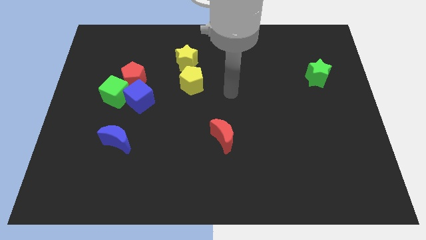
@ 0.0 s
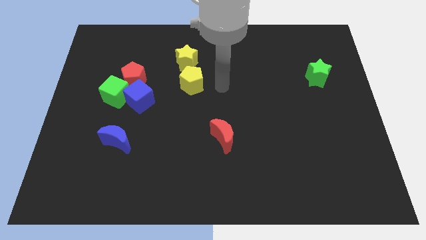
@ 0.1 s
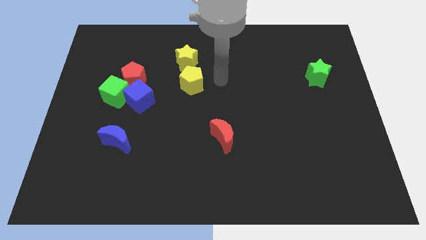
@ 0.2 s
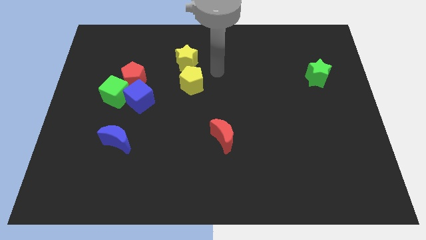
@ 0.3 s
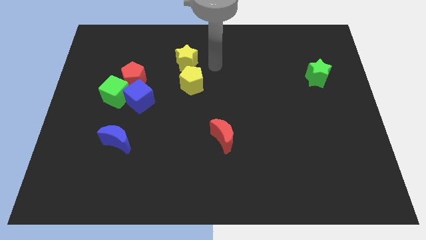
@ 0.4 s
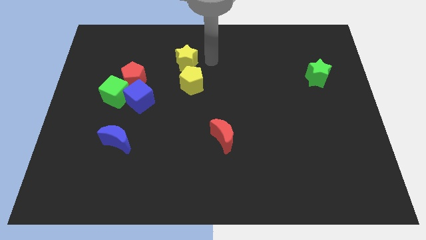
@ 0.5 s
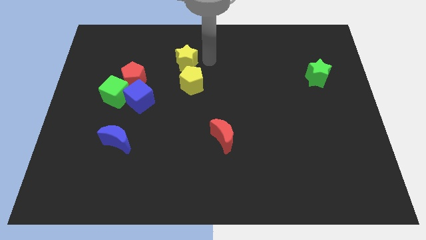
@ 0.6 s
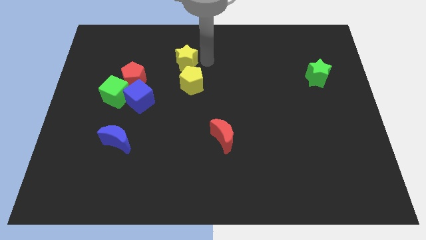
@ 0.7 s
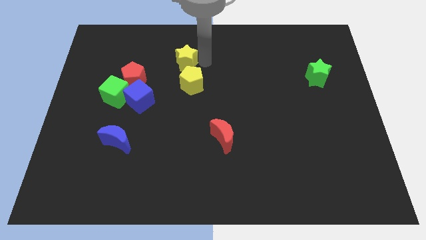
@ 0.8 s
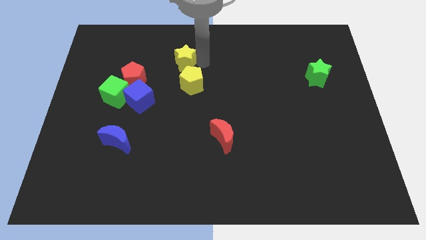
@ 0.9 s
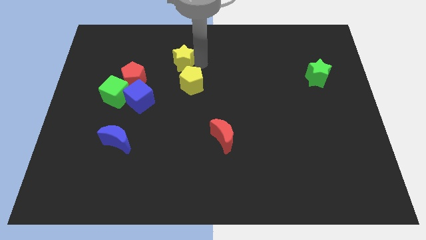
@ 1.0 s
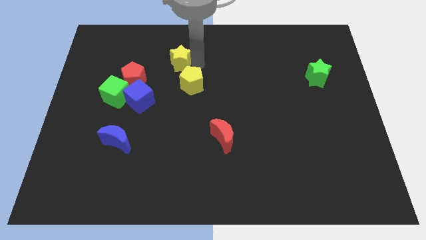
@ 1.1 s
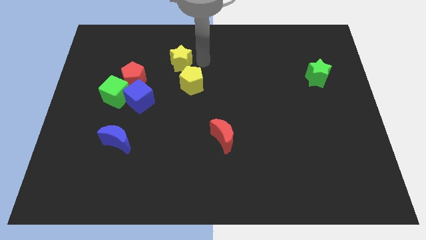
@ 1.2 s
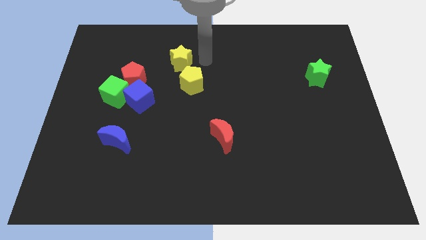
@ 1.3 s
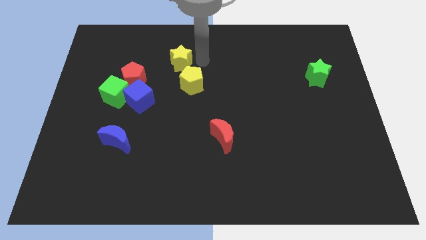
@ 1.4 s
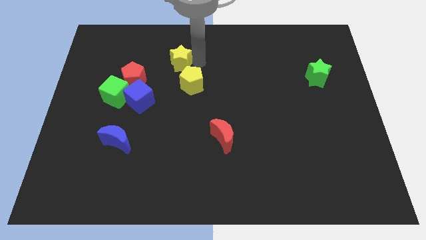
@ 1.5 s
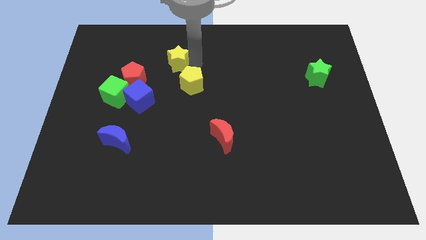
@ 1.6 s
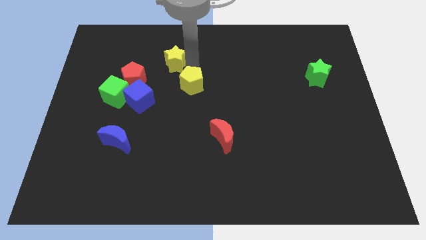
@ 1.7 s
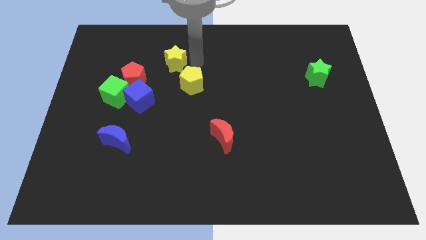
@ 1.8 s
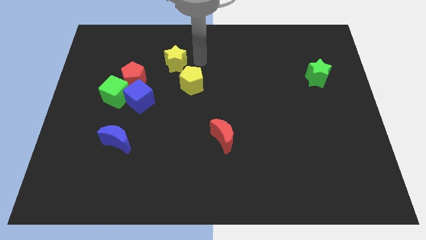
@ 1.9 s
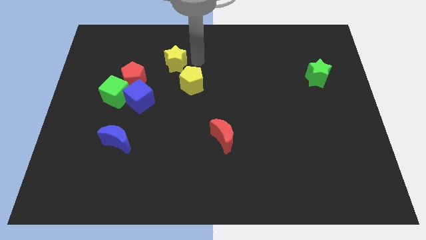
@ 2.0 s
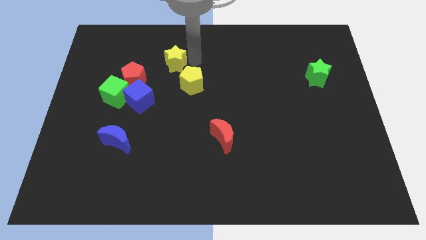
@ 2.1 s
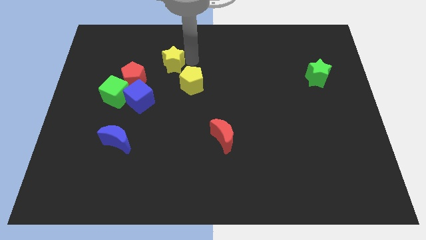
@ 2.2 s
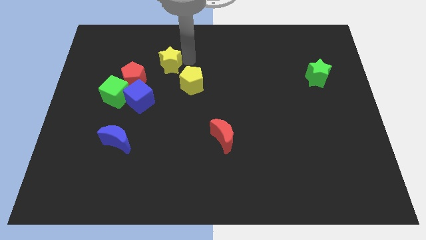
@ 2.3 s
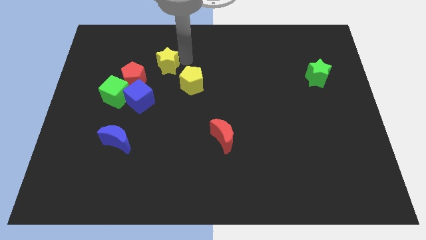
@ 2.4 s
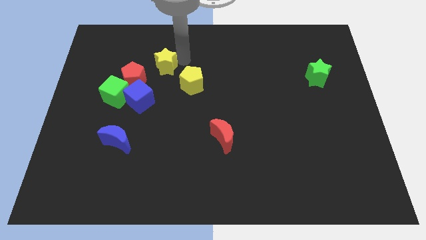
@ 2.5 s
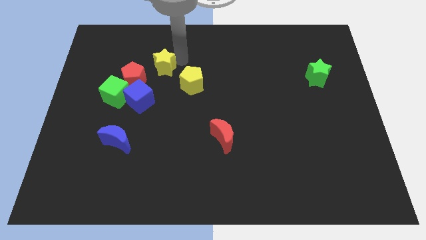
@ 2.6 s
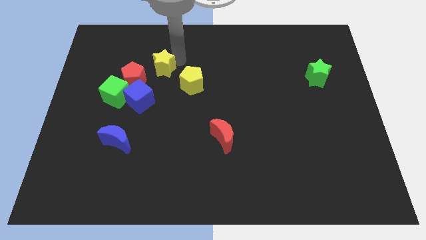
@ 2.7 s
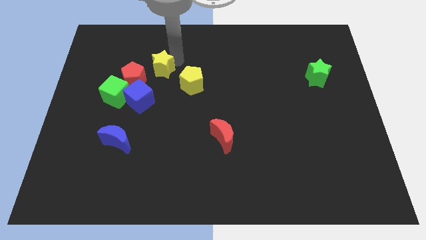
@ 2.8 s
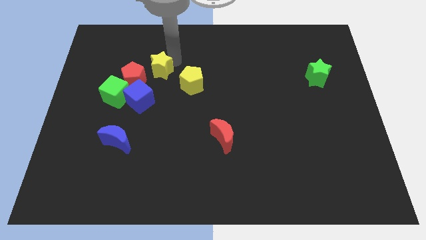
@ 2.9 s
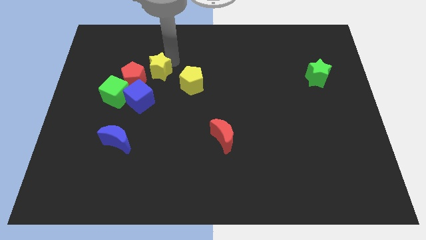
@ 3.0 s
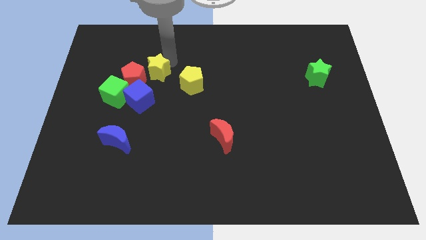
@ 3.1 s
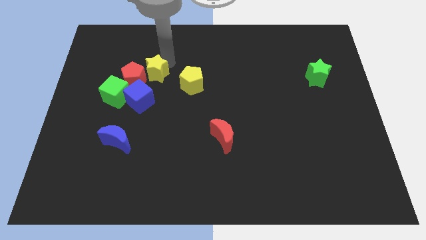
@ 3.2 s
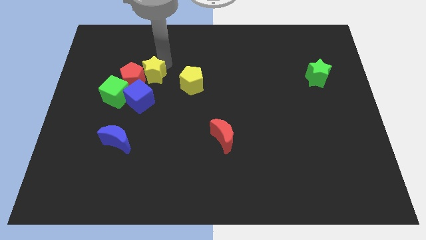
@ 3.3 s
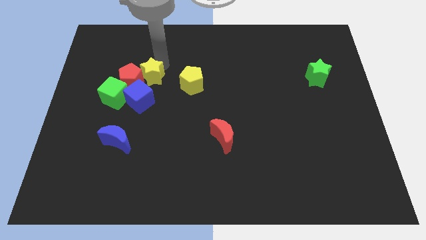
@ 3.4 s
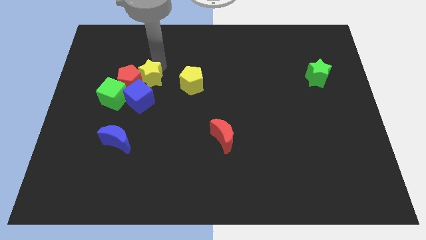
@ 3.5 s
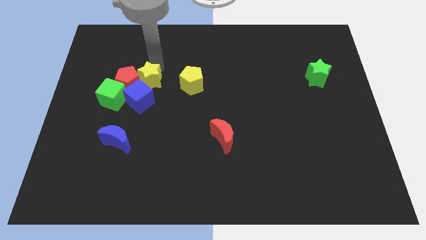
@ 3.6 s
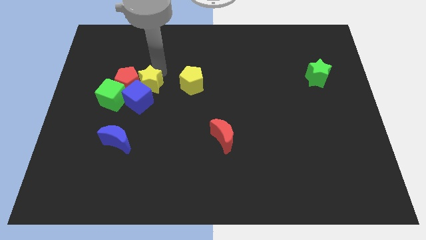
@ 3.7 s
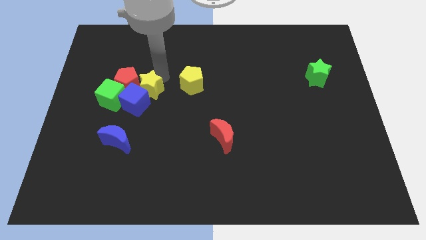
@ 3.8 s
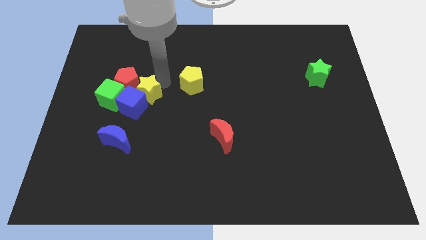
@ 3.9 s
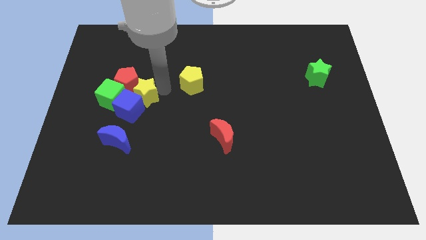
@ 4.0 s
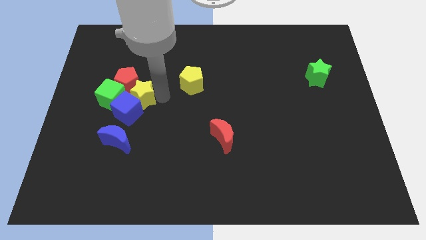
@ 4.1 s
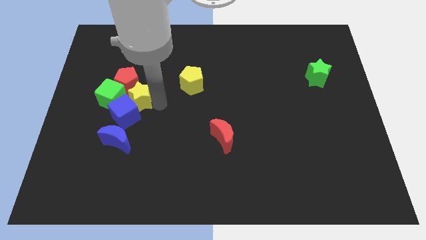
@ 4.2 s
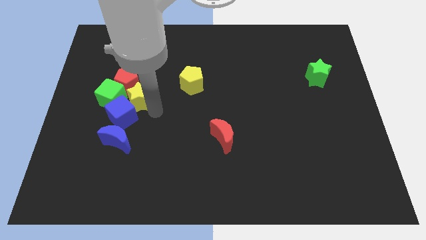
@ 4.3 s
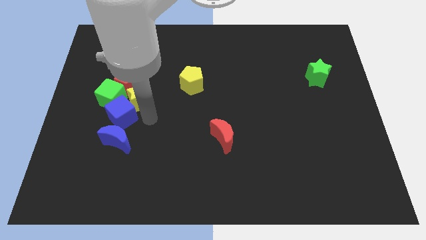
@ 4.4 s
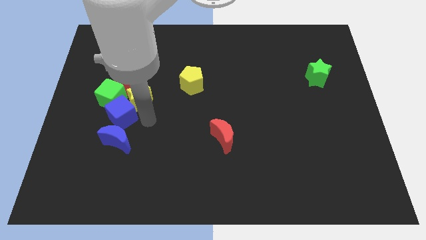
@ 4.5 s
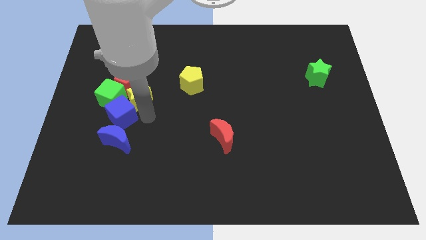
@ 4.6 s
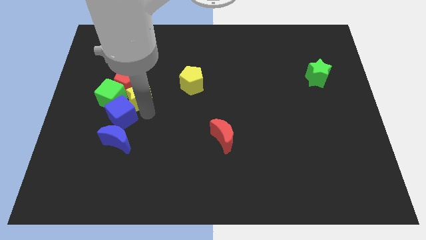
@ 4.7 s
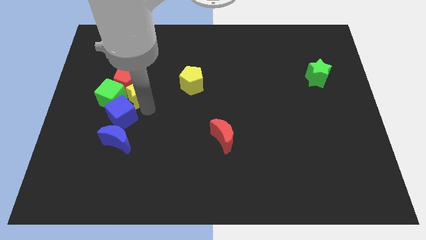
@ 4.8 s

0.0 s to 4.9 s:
push the yellow star towards the green cube

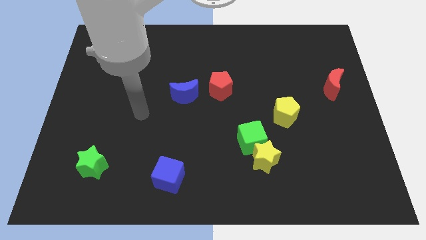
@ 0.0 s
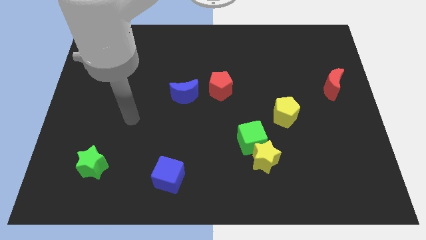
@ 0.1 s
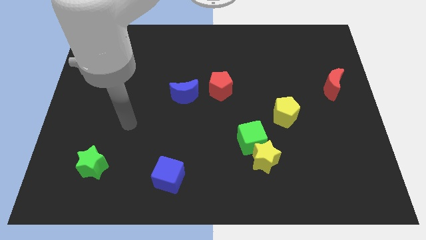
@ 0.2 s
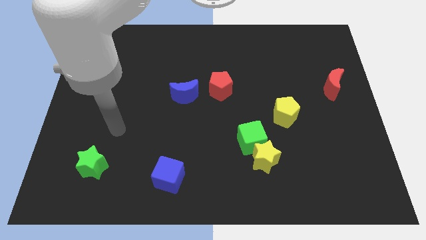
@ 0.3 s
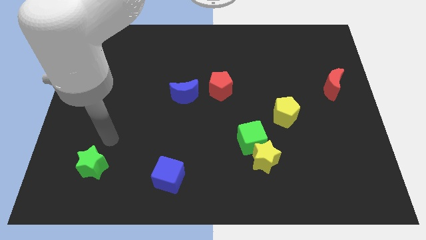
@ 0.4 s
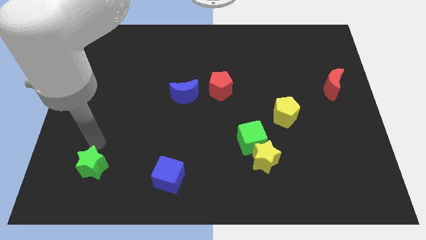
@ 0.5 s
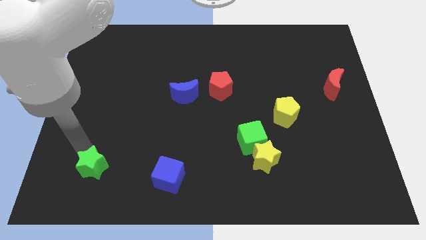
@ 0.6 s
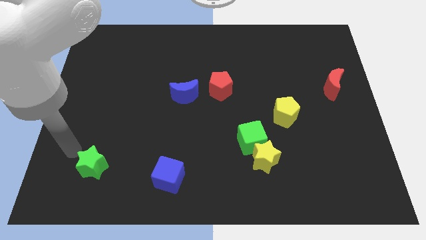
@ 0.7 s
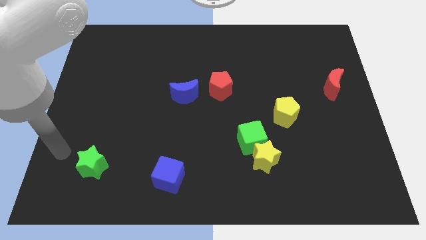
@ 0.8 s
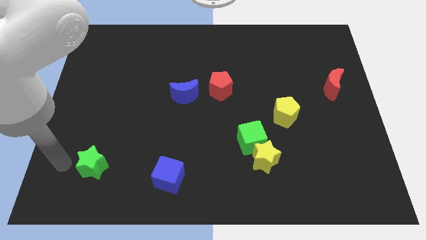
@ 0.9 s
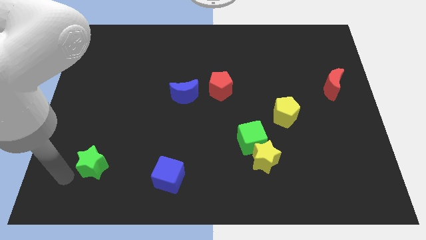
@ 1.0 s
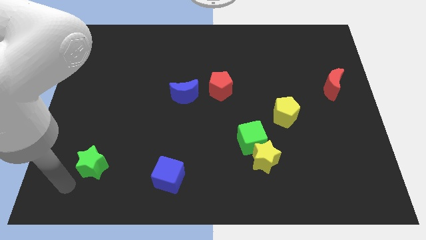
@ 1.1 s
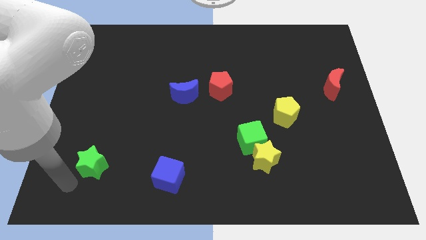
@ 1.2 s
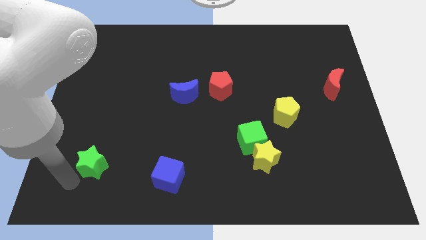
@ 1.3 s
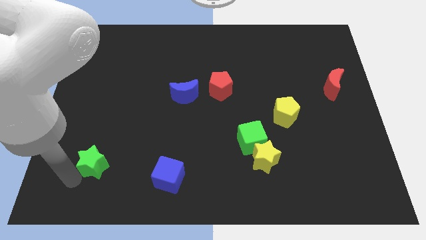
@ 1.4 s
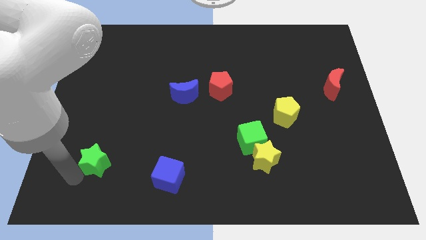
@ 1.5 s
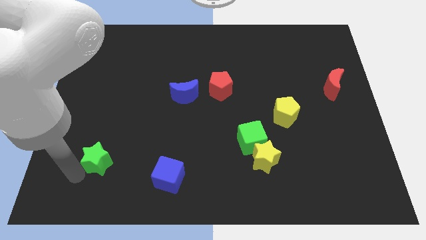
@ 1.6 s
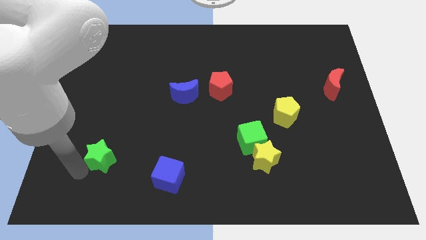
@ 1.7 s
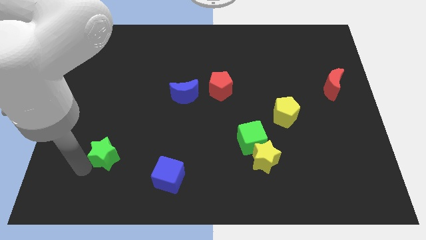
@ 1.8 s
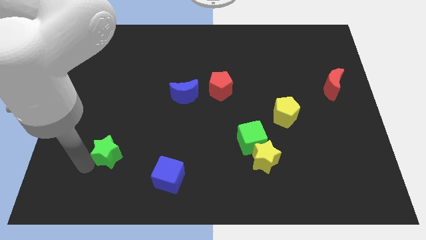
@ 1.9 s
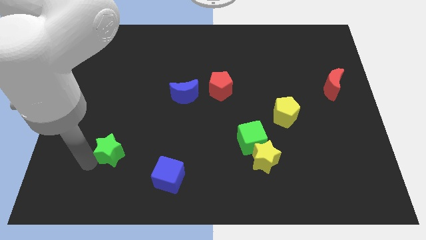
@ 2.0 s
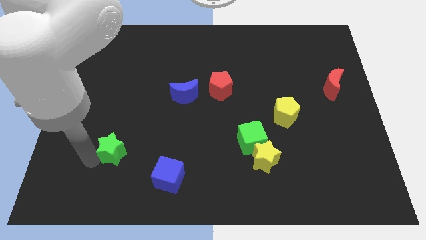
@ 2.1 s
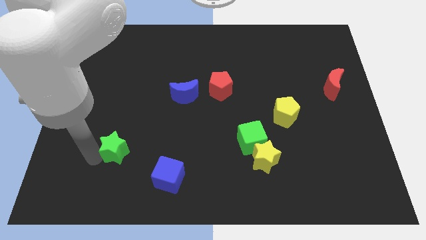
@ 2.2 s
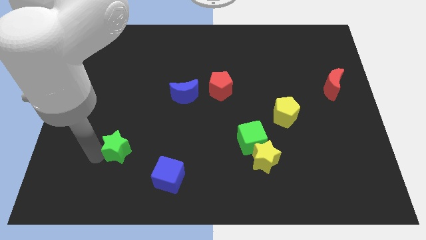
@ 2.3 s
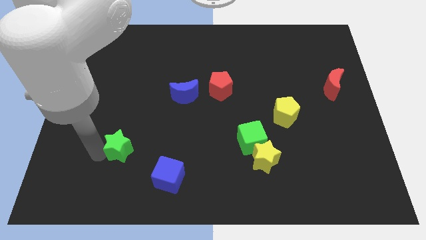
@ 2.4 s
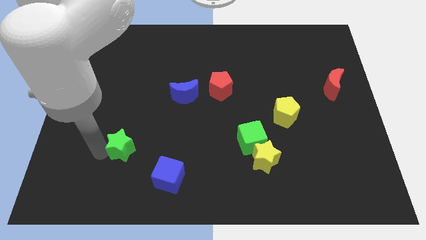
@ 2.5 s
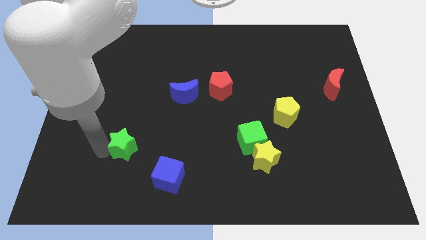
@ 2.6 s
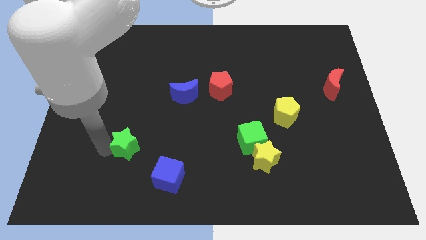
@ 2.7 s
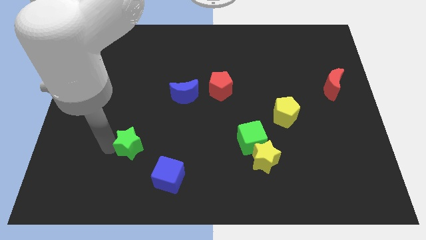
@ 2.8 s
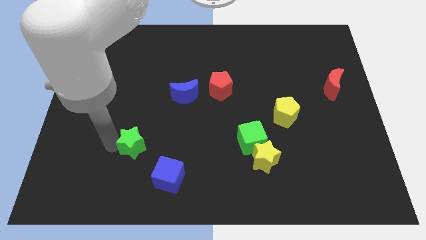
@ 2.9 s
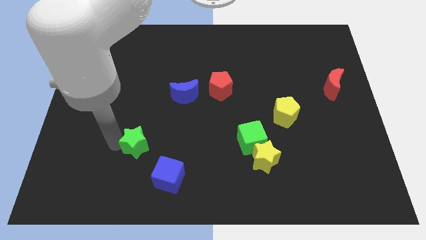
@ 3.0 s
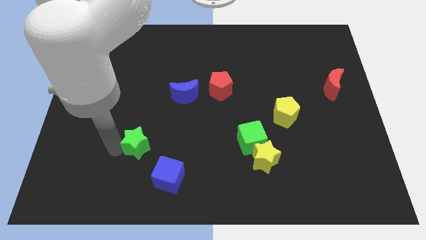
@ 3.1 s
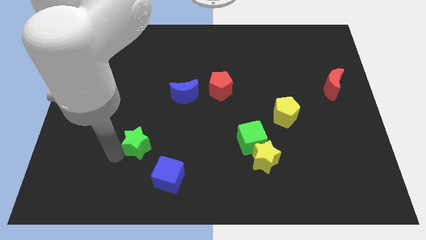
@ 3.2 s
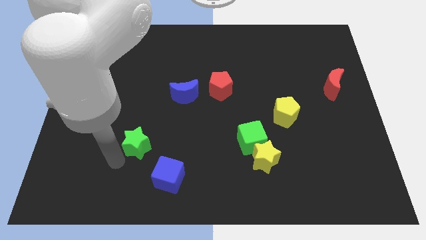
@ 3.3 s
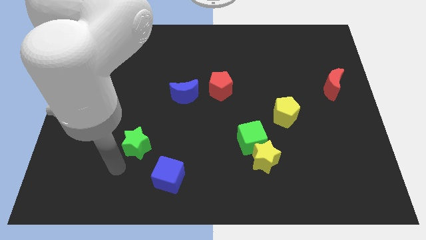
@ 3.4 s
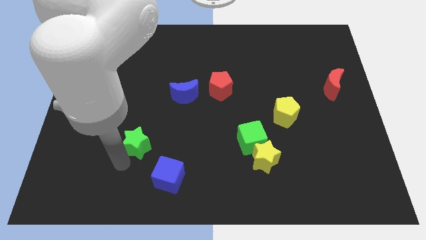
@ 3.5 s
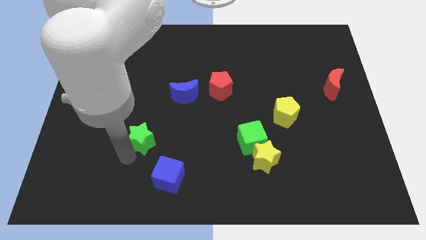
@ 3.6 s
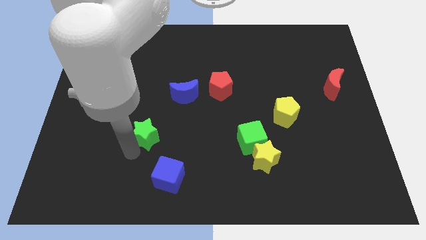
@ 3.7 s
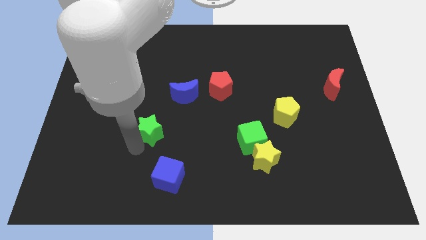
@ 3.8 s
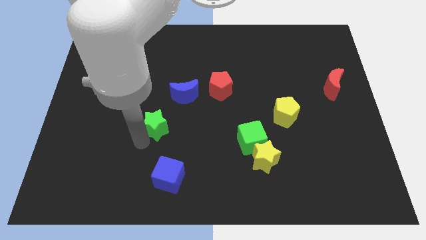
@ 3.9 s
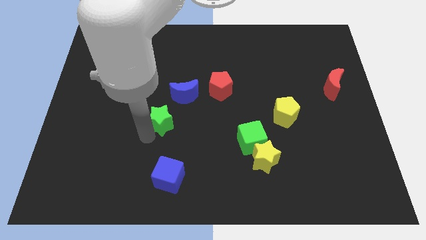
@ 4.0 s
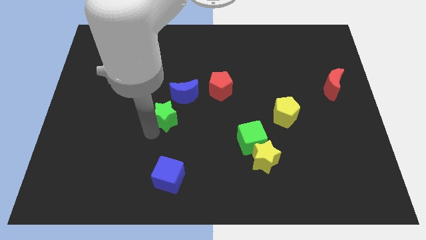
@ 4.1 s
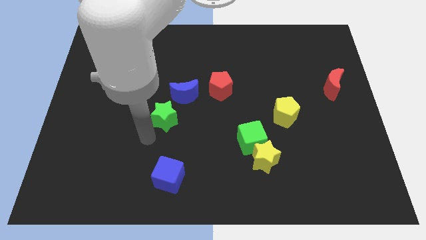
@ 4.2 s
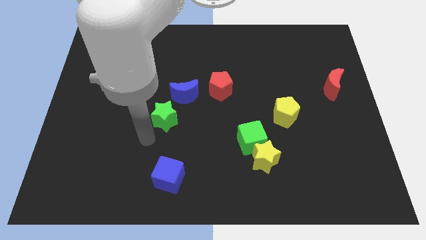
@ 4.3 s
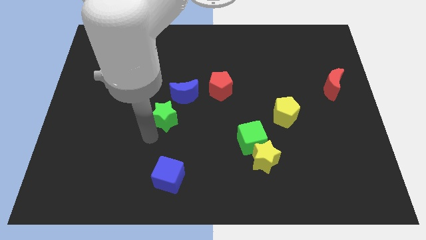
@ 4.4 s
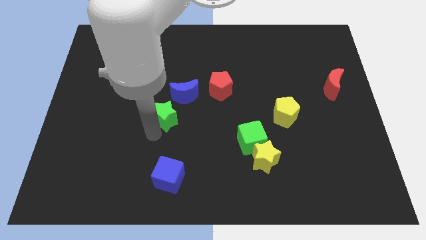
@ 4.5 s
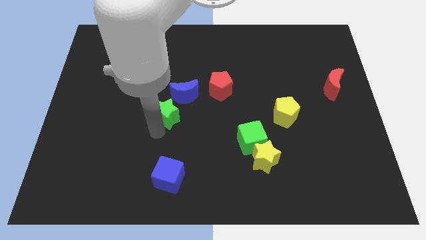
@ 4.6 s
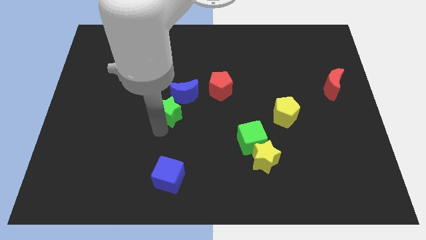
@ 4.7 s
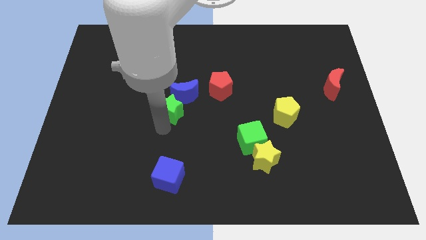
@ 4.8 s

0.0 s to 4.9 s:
move the green star to the blue moon
